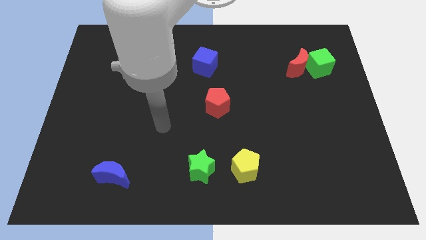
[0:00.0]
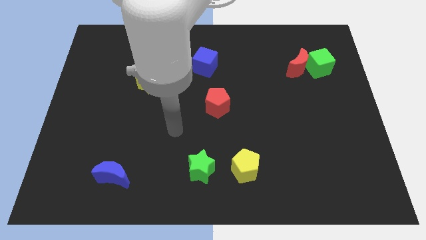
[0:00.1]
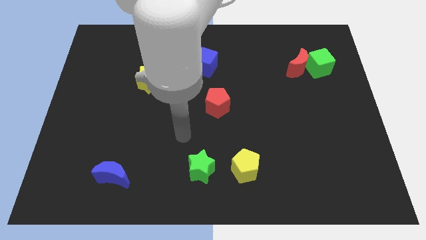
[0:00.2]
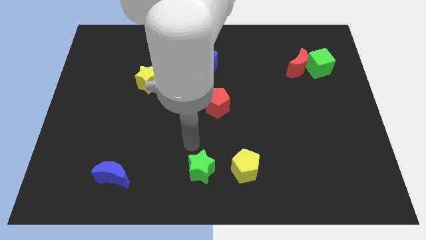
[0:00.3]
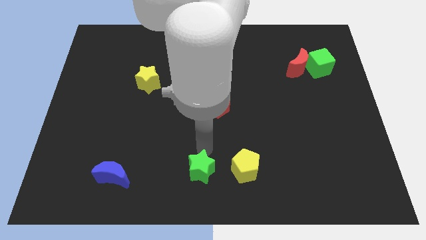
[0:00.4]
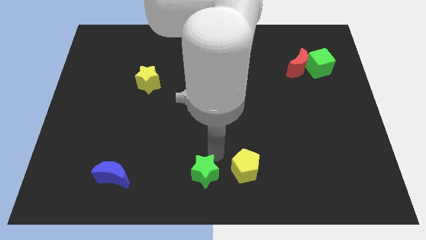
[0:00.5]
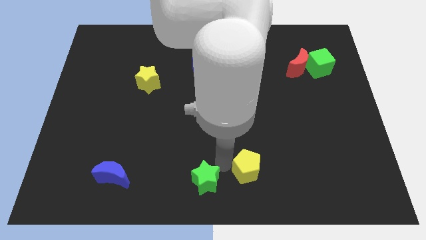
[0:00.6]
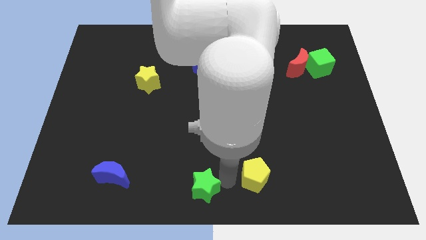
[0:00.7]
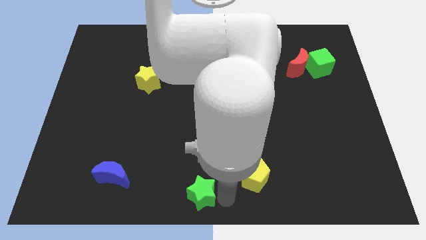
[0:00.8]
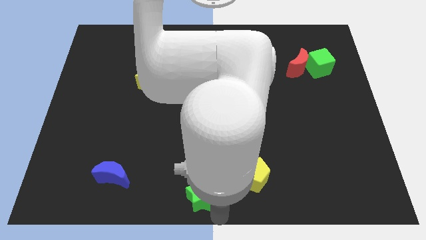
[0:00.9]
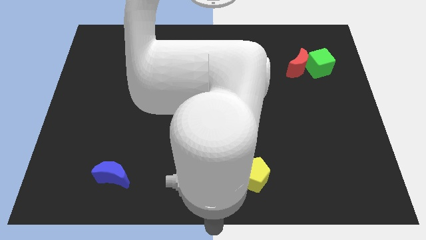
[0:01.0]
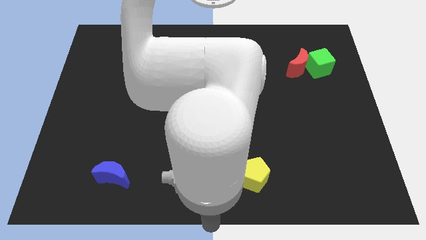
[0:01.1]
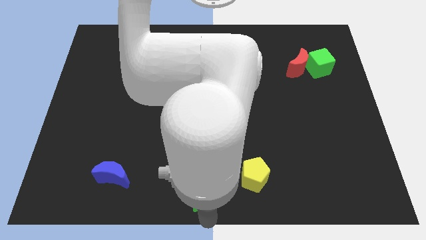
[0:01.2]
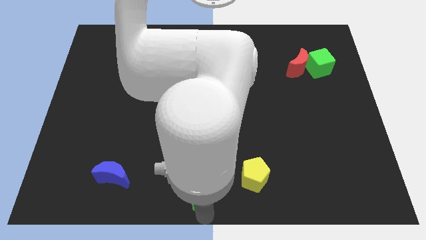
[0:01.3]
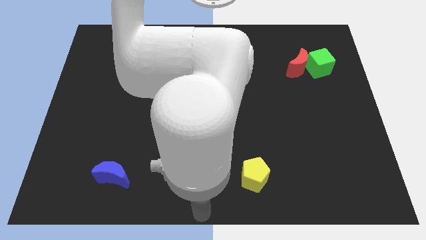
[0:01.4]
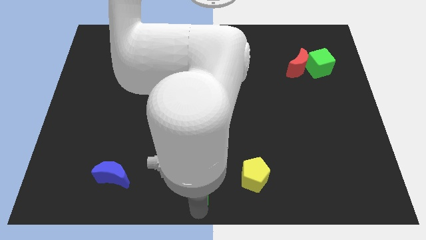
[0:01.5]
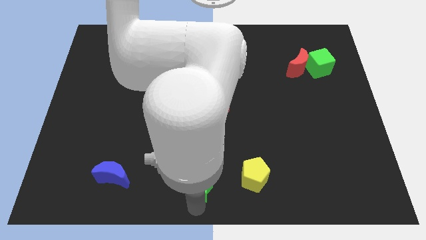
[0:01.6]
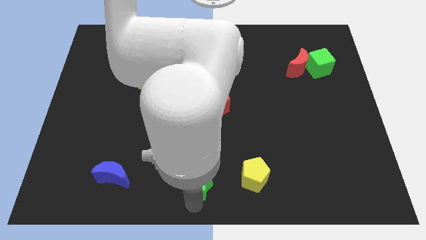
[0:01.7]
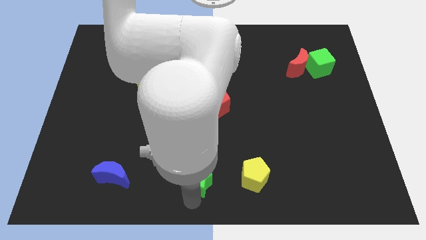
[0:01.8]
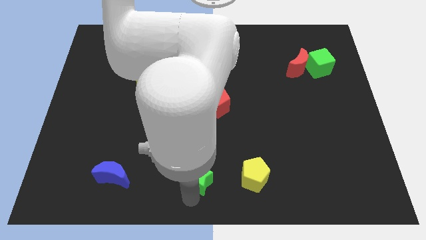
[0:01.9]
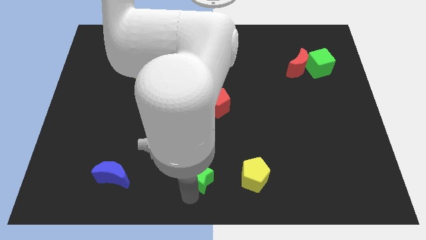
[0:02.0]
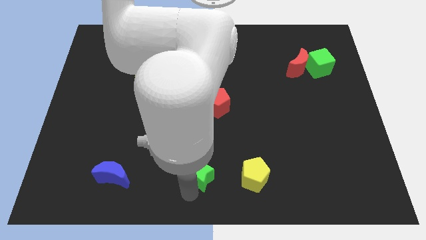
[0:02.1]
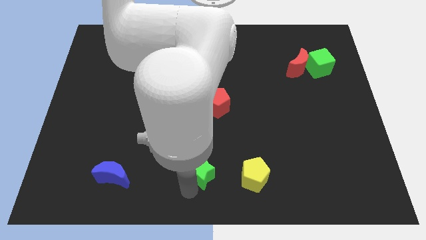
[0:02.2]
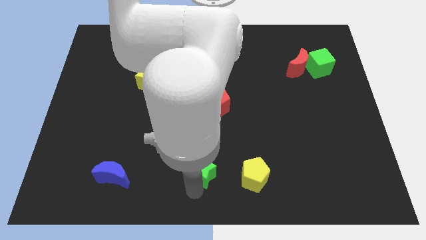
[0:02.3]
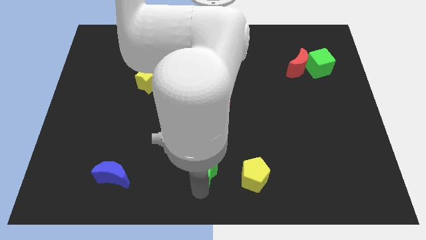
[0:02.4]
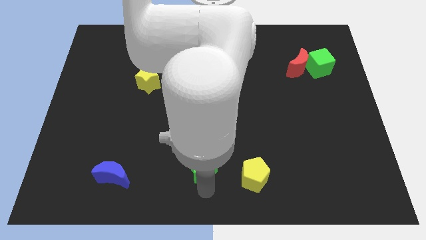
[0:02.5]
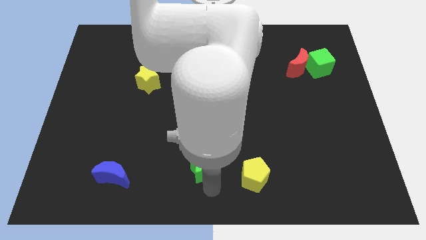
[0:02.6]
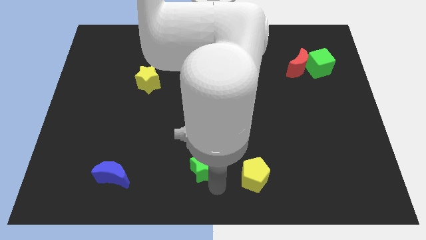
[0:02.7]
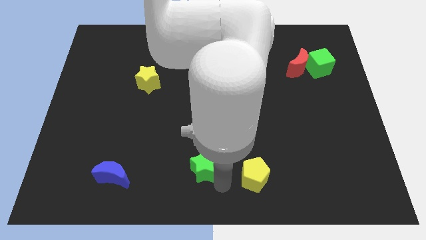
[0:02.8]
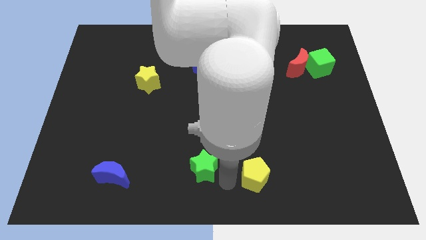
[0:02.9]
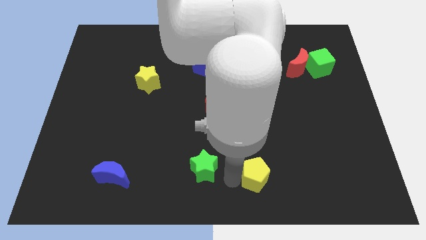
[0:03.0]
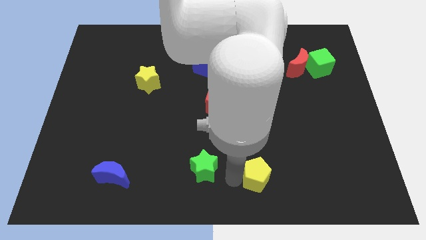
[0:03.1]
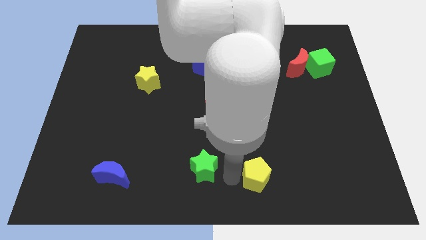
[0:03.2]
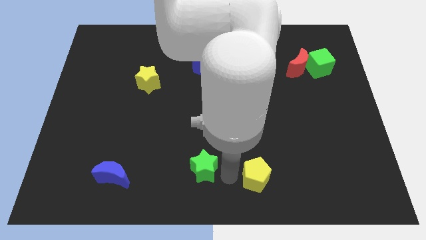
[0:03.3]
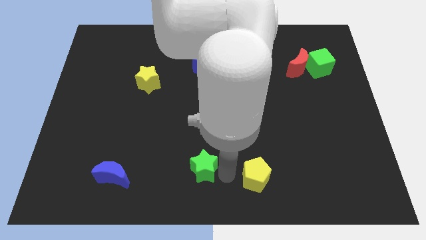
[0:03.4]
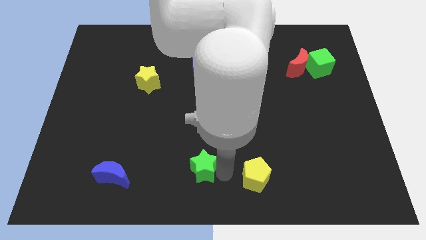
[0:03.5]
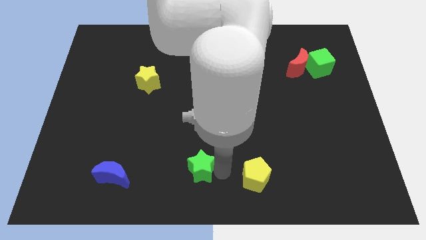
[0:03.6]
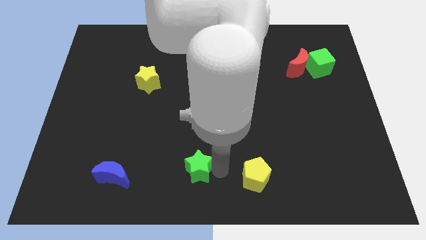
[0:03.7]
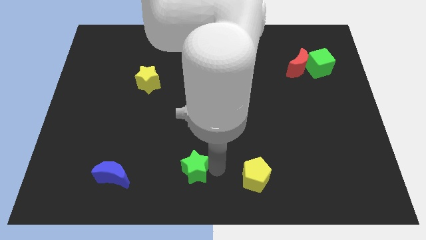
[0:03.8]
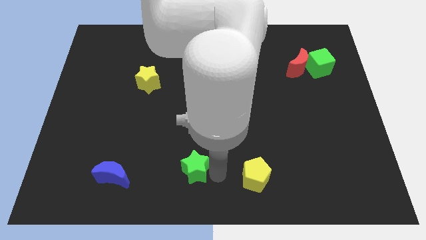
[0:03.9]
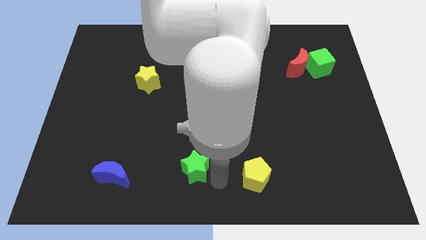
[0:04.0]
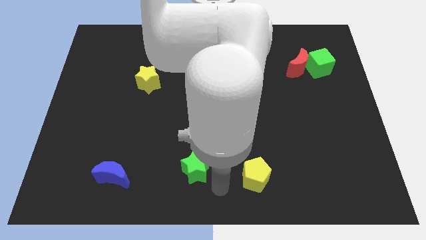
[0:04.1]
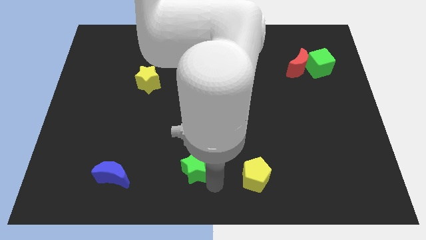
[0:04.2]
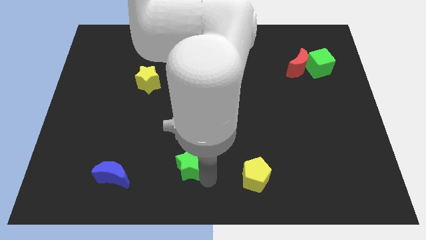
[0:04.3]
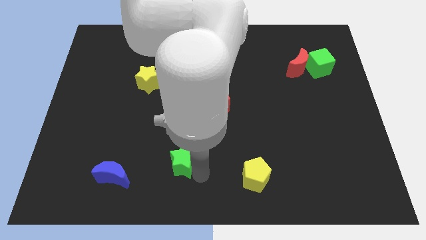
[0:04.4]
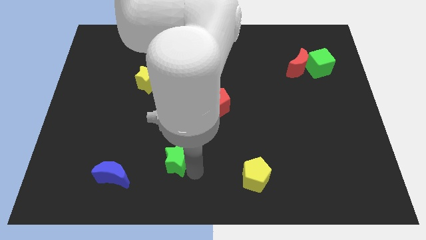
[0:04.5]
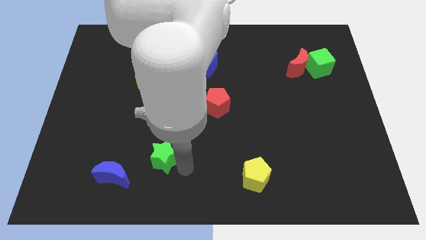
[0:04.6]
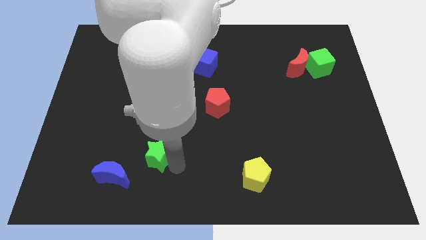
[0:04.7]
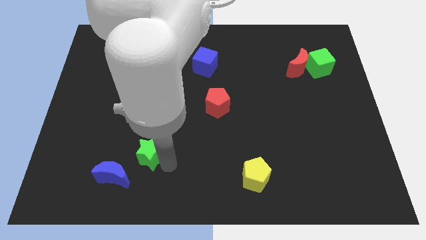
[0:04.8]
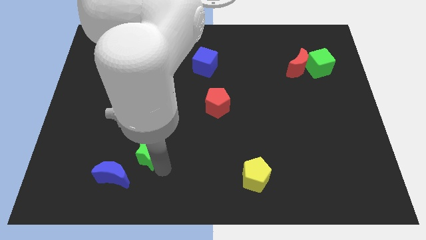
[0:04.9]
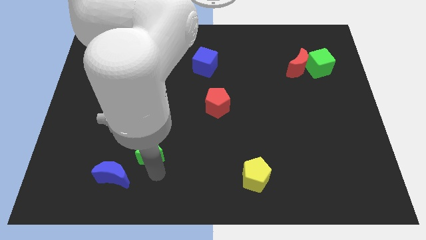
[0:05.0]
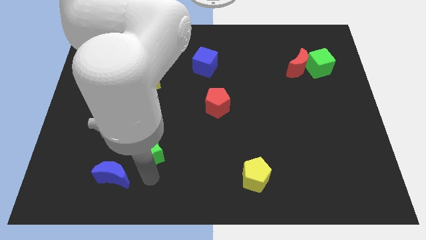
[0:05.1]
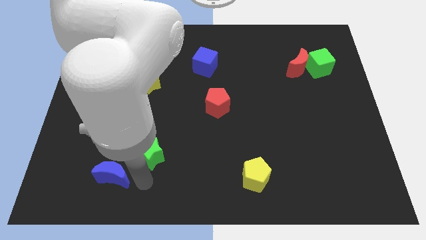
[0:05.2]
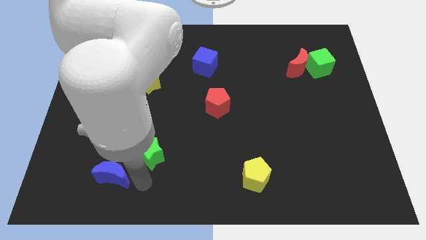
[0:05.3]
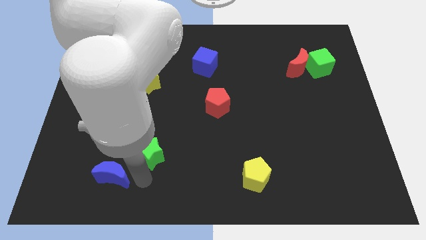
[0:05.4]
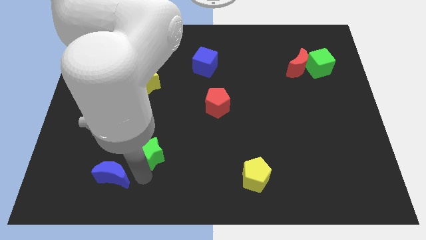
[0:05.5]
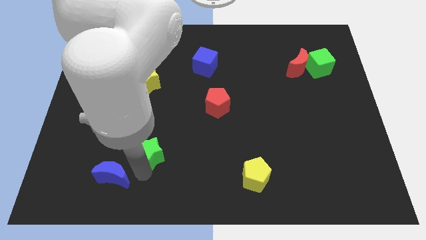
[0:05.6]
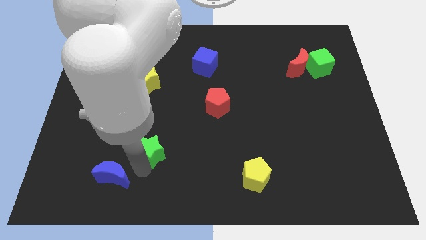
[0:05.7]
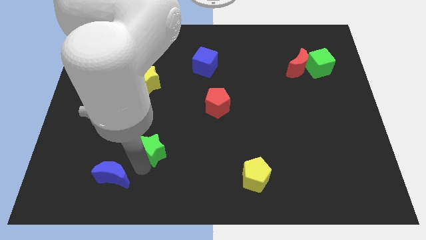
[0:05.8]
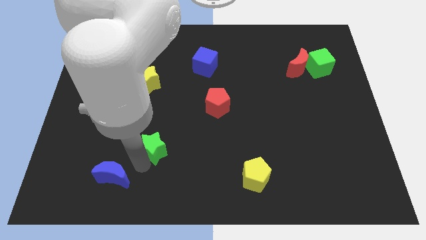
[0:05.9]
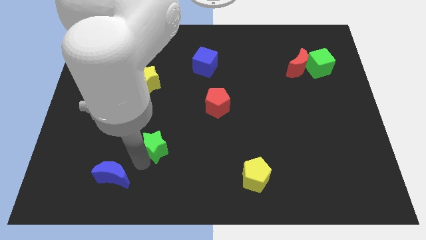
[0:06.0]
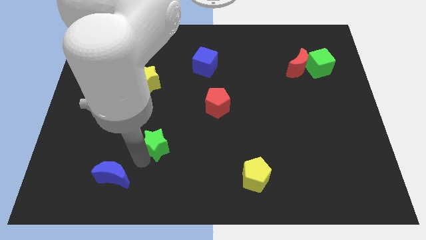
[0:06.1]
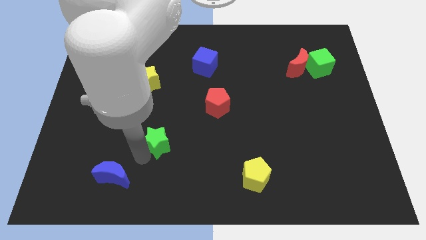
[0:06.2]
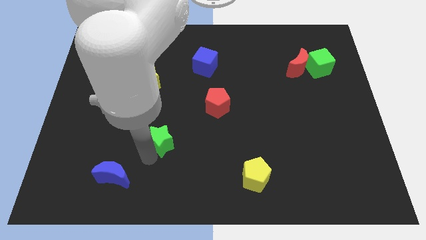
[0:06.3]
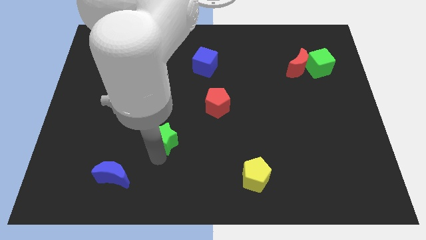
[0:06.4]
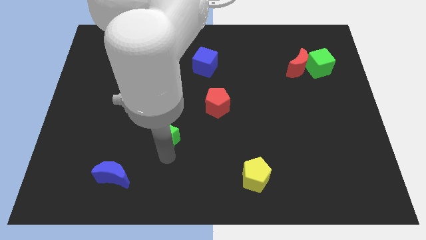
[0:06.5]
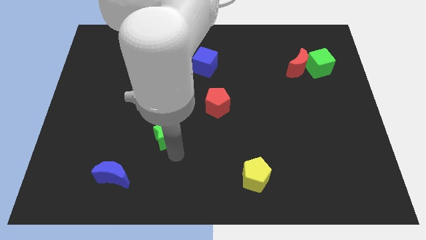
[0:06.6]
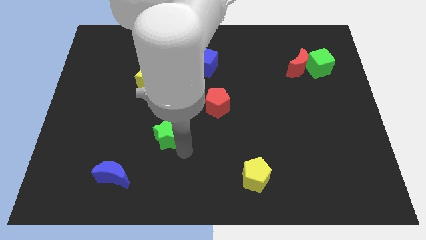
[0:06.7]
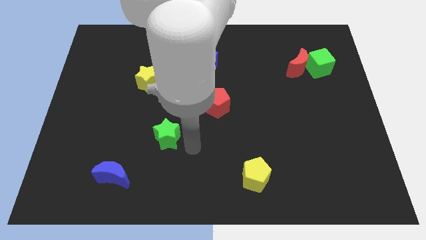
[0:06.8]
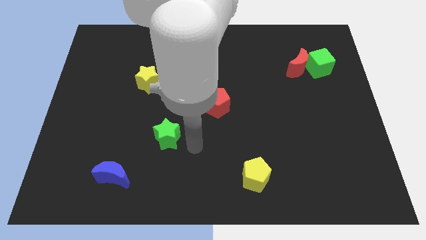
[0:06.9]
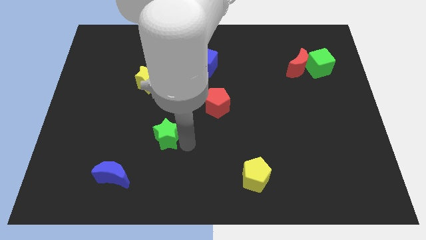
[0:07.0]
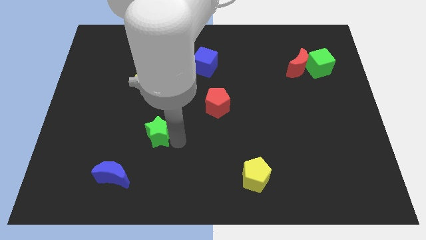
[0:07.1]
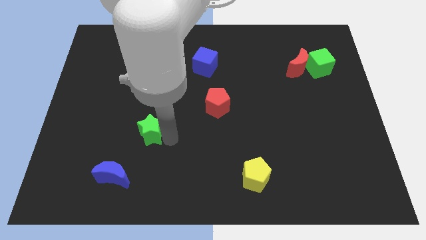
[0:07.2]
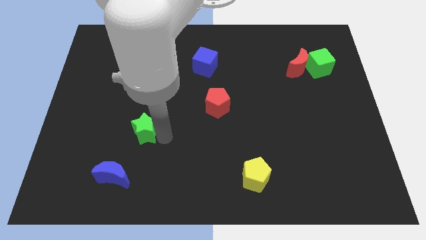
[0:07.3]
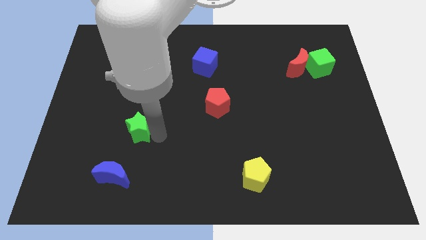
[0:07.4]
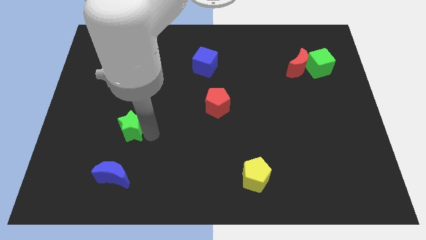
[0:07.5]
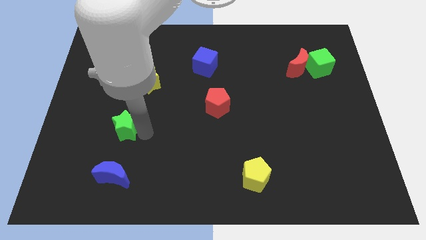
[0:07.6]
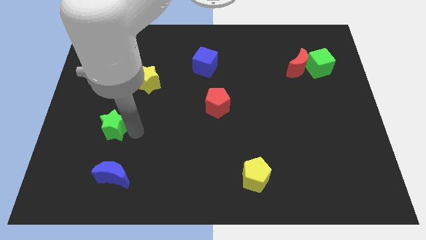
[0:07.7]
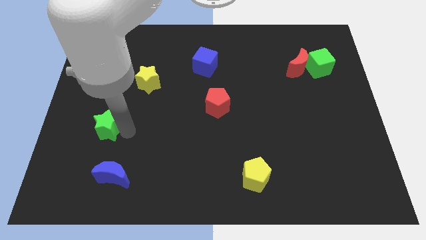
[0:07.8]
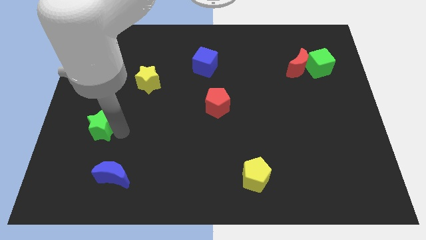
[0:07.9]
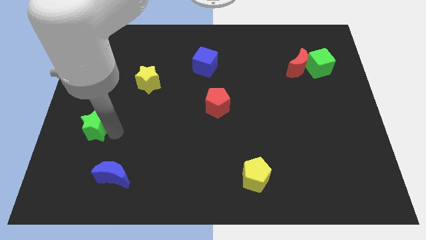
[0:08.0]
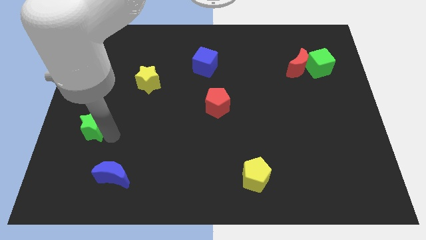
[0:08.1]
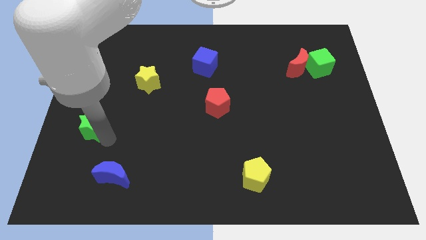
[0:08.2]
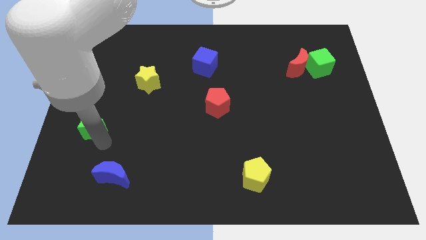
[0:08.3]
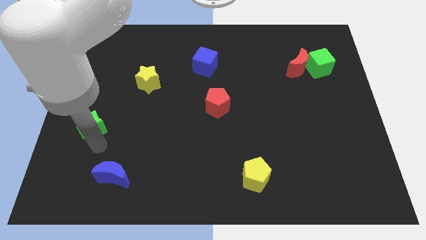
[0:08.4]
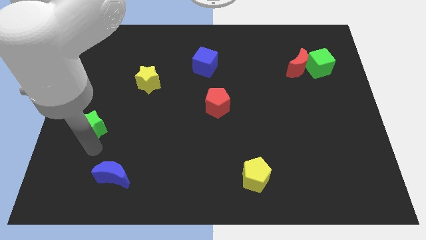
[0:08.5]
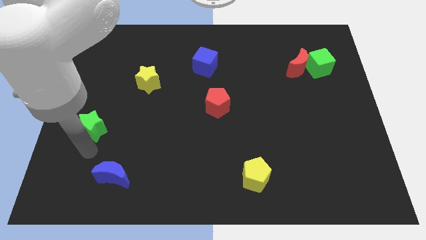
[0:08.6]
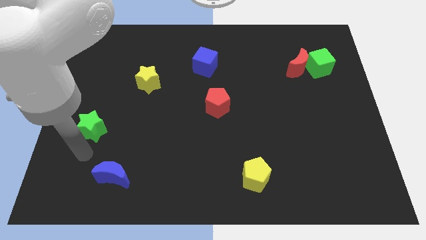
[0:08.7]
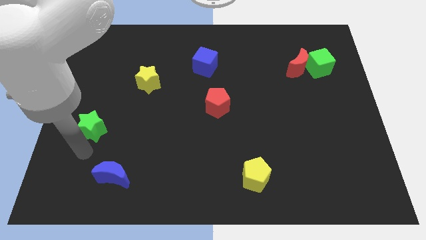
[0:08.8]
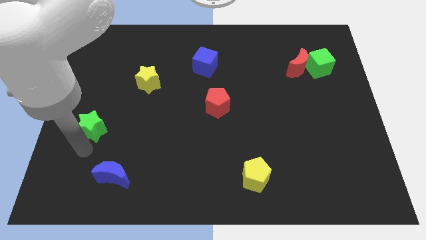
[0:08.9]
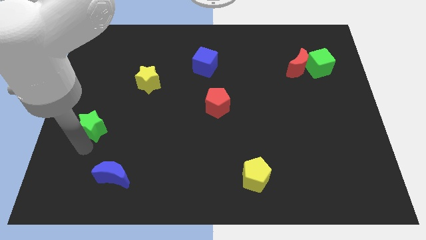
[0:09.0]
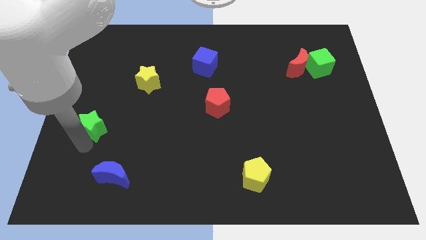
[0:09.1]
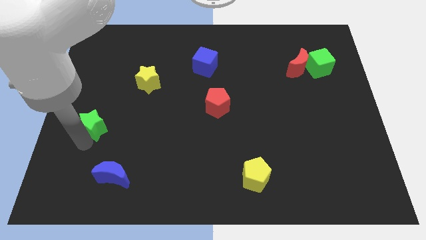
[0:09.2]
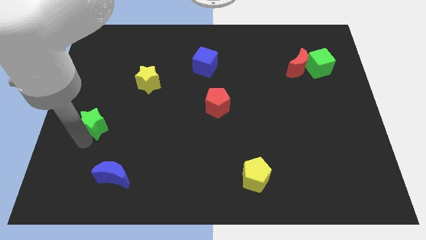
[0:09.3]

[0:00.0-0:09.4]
move the green star to the left side
